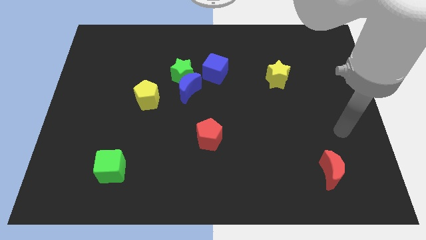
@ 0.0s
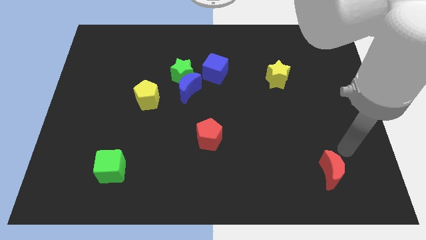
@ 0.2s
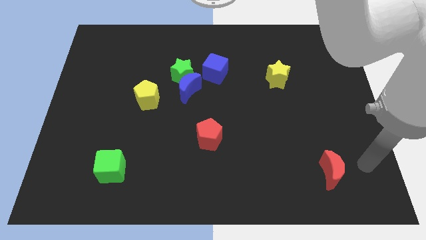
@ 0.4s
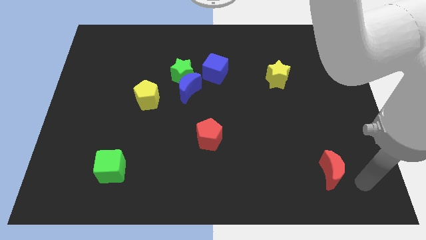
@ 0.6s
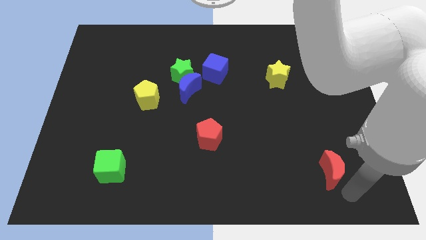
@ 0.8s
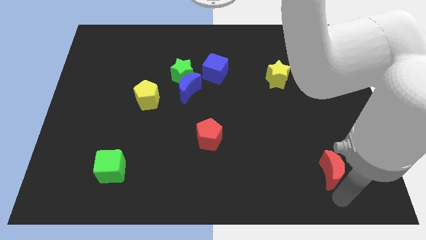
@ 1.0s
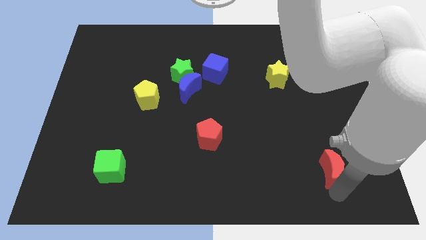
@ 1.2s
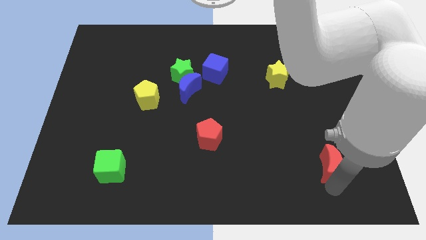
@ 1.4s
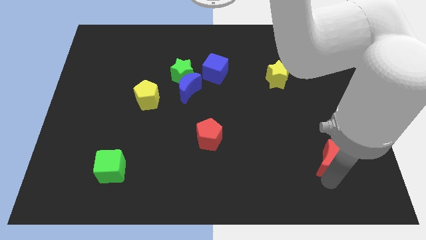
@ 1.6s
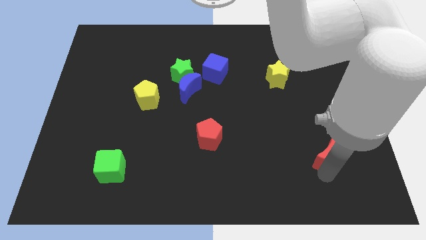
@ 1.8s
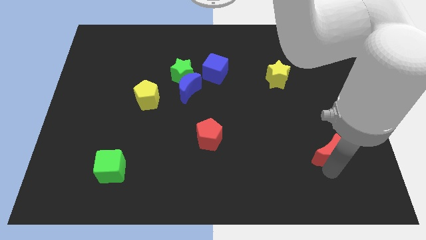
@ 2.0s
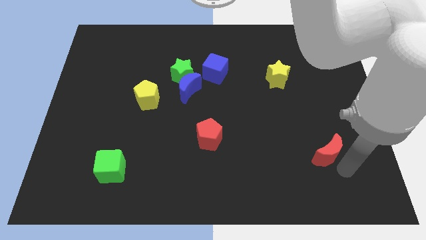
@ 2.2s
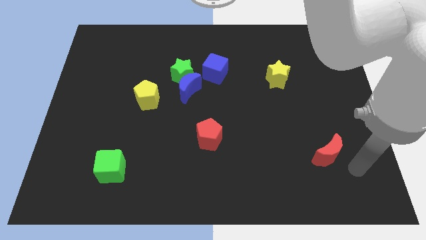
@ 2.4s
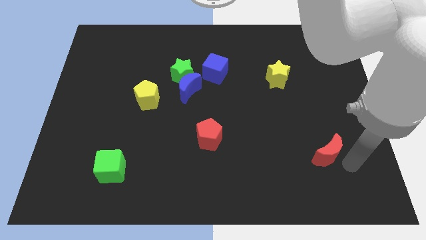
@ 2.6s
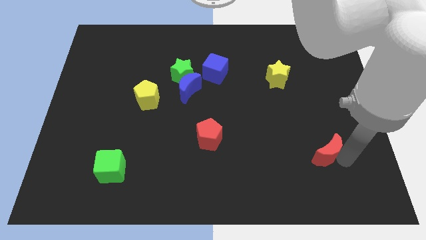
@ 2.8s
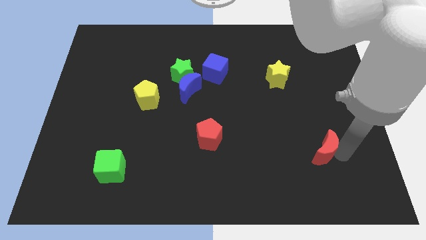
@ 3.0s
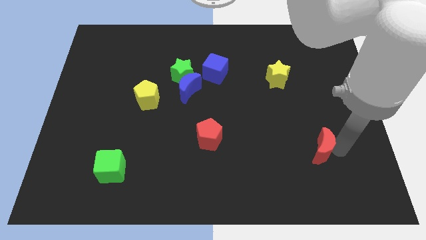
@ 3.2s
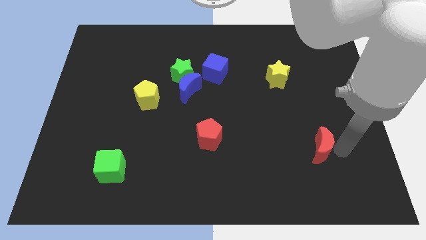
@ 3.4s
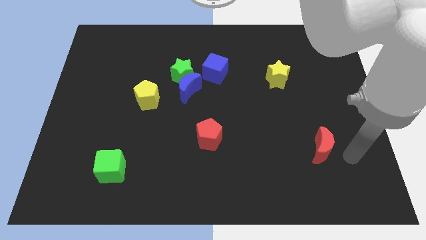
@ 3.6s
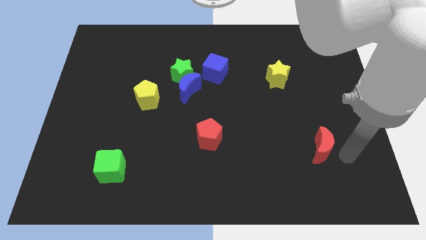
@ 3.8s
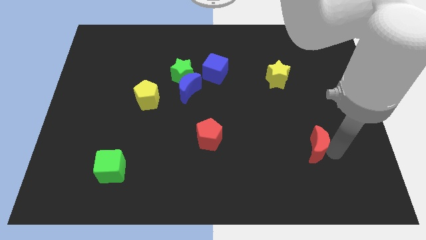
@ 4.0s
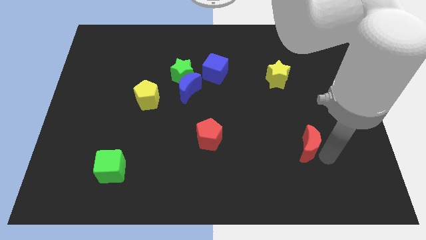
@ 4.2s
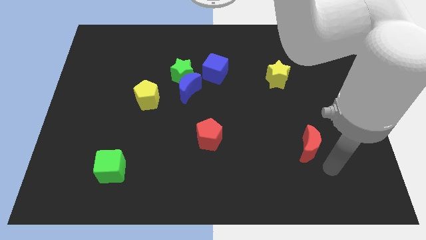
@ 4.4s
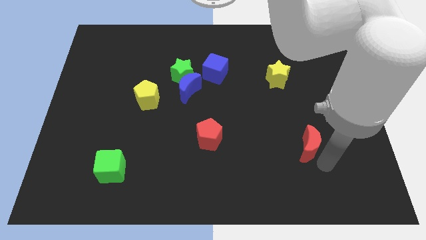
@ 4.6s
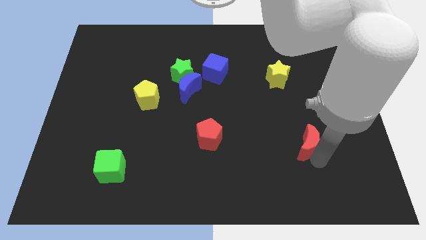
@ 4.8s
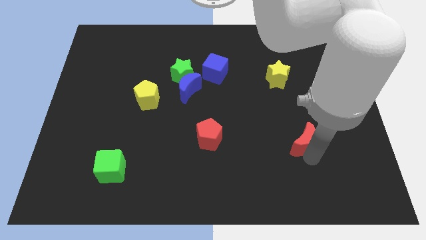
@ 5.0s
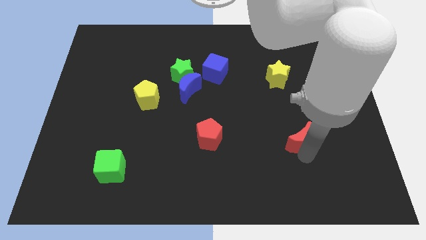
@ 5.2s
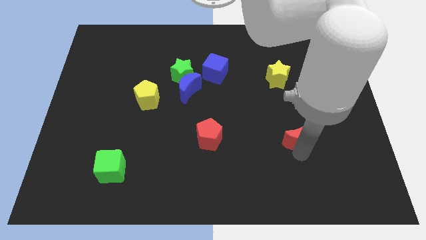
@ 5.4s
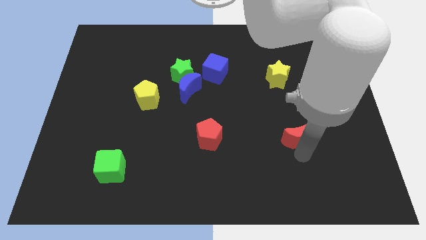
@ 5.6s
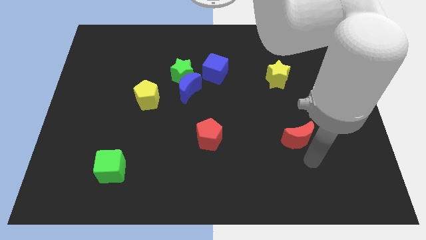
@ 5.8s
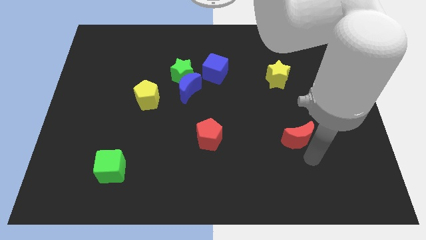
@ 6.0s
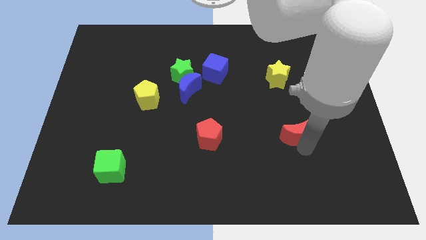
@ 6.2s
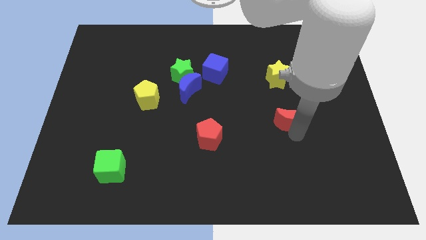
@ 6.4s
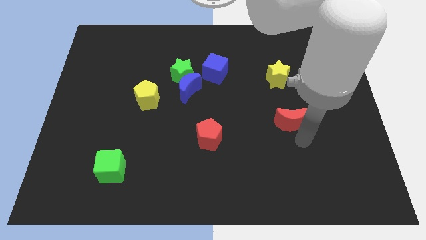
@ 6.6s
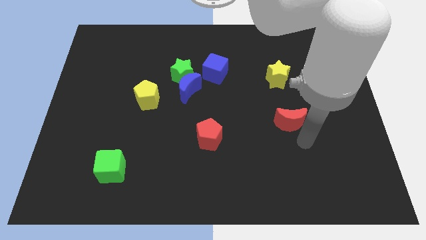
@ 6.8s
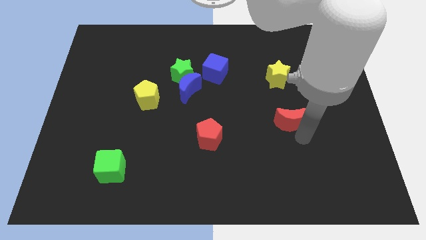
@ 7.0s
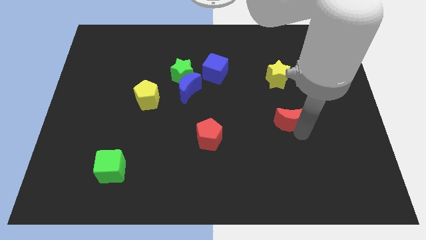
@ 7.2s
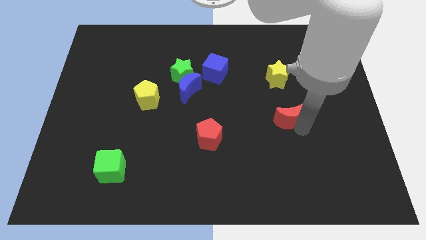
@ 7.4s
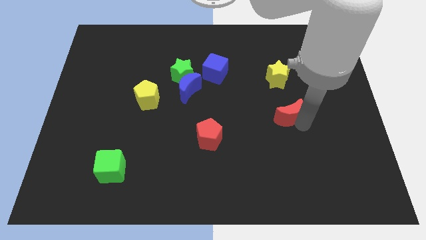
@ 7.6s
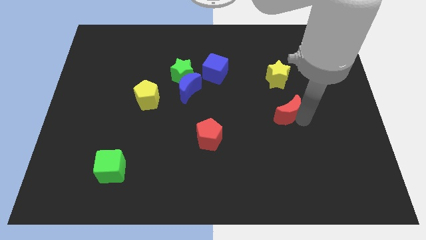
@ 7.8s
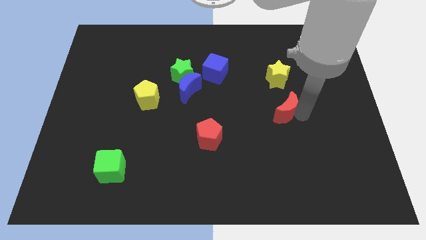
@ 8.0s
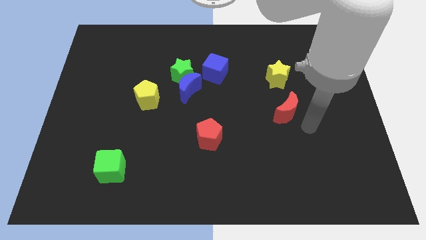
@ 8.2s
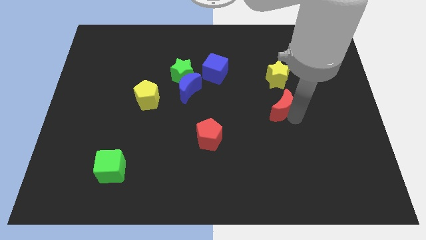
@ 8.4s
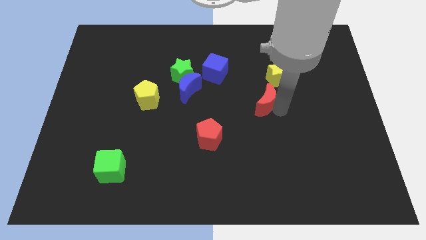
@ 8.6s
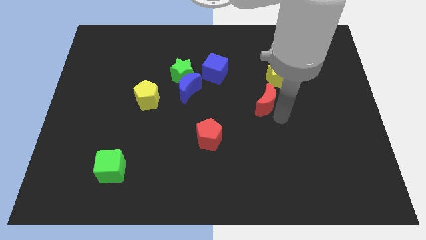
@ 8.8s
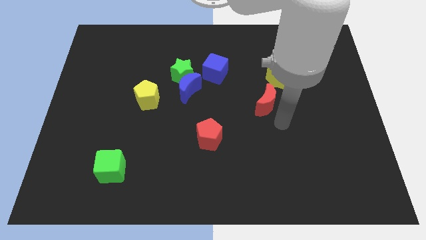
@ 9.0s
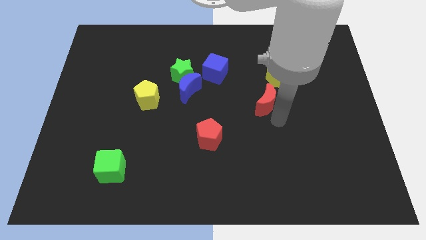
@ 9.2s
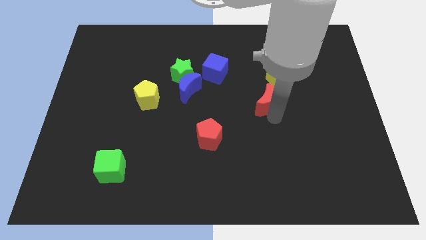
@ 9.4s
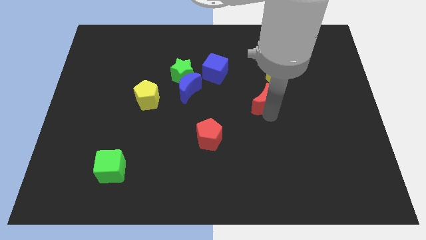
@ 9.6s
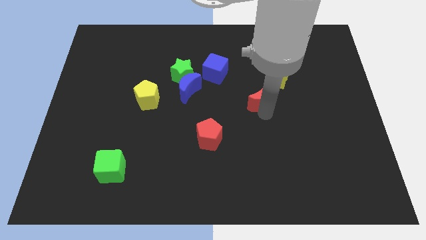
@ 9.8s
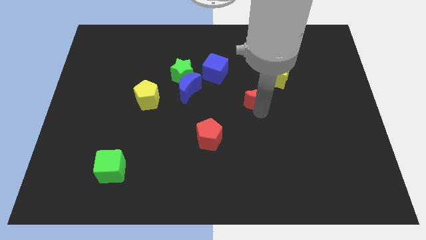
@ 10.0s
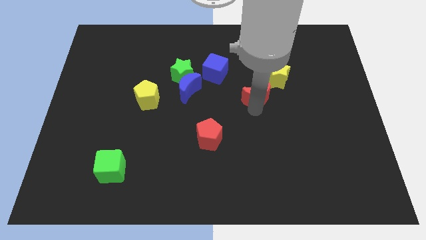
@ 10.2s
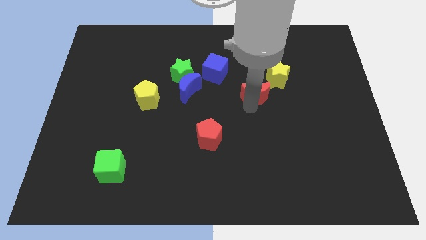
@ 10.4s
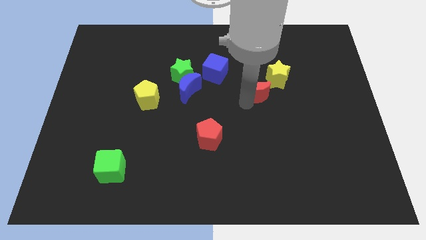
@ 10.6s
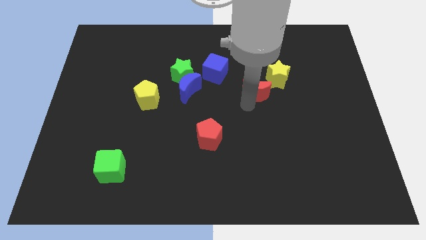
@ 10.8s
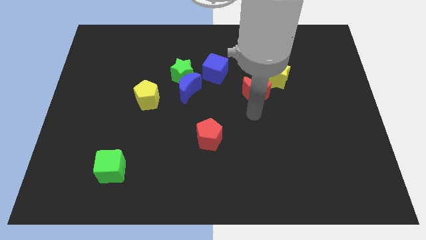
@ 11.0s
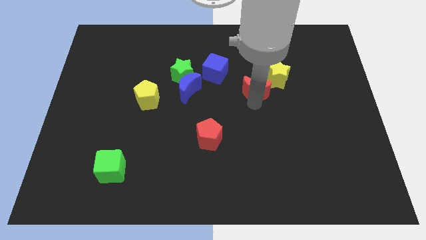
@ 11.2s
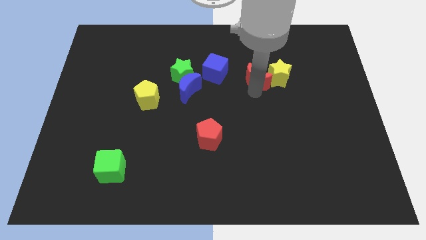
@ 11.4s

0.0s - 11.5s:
put the red moon right of the blue cube
